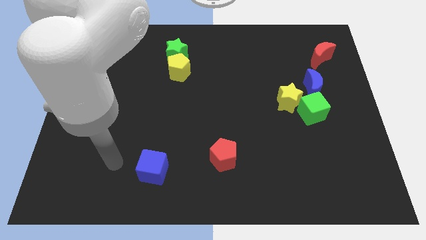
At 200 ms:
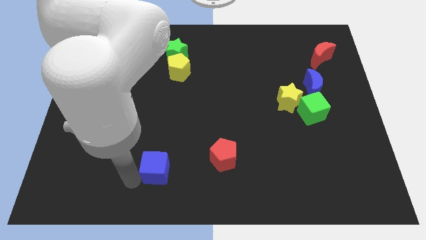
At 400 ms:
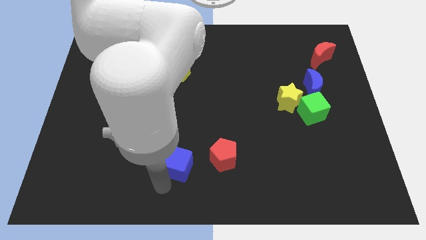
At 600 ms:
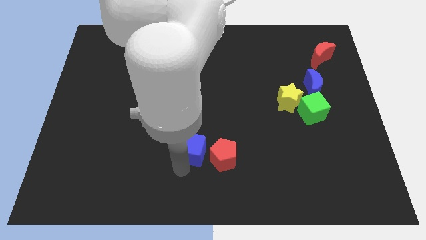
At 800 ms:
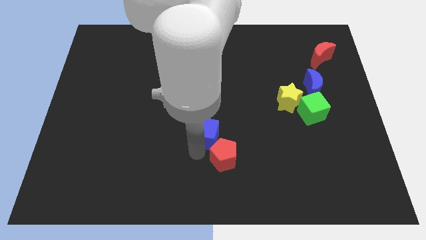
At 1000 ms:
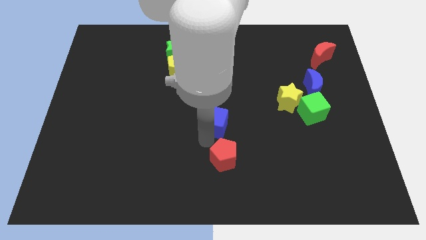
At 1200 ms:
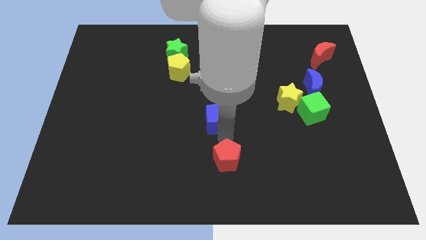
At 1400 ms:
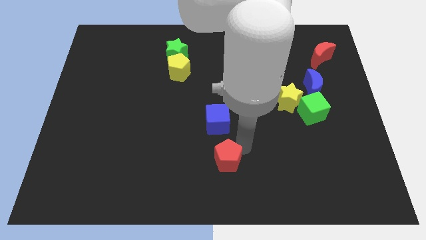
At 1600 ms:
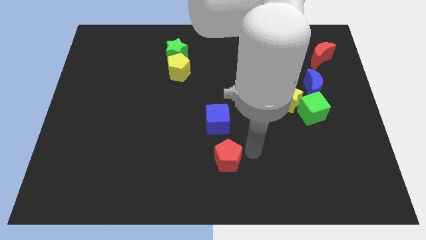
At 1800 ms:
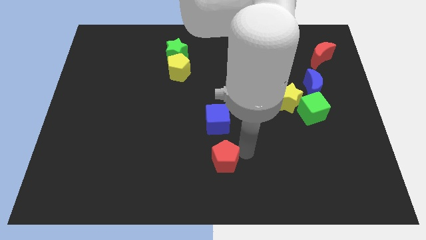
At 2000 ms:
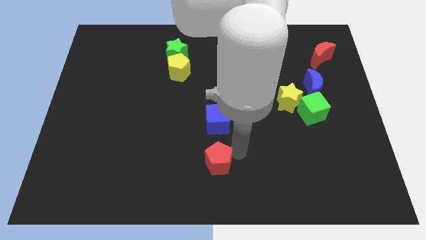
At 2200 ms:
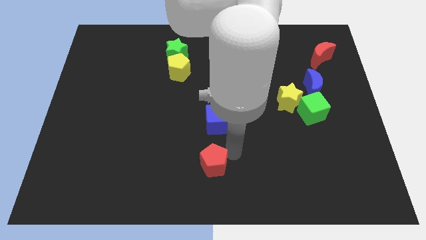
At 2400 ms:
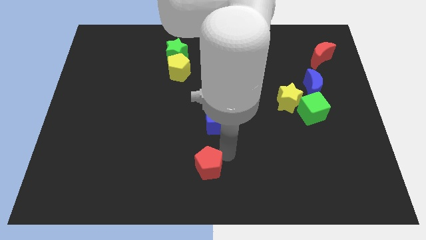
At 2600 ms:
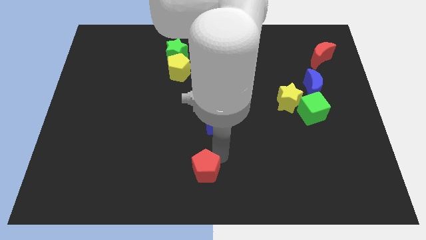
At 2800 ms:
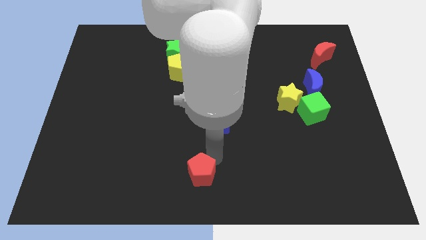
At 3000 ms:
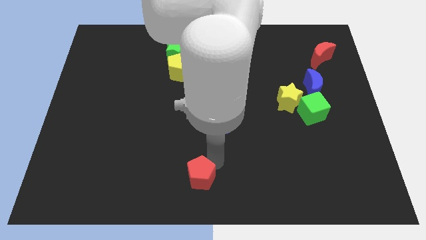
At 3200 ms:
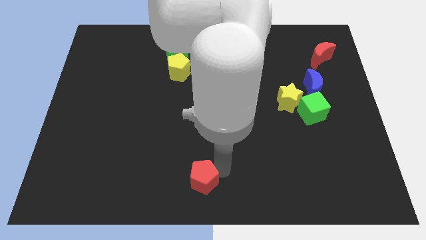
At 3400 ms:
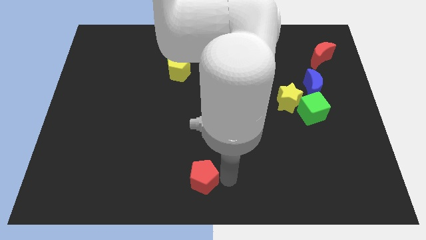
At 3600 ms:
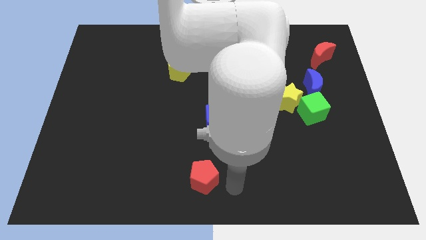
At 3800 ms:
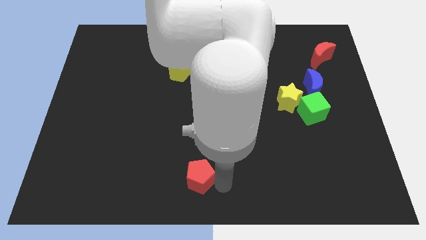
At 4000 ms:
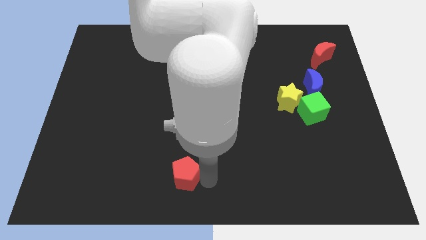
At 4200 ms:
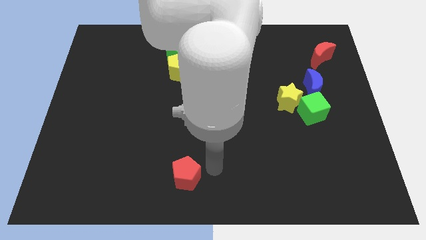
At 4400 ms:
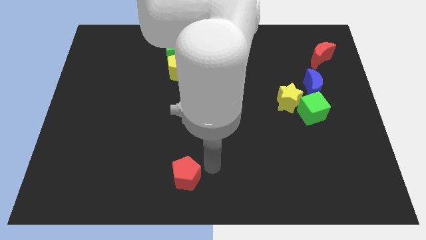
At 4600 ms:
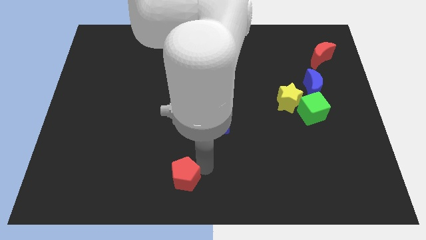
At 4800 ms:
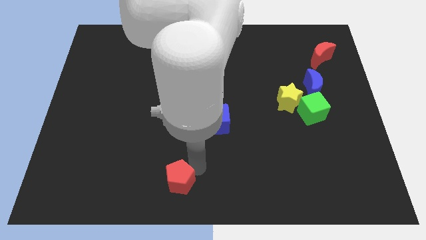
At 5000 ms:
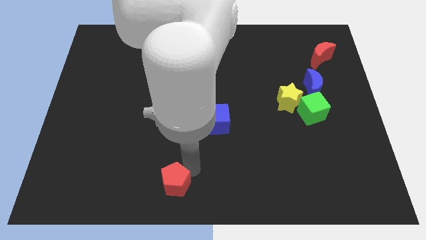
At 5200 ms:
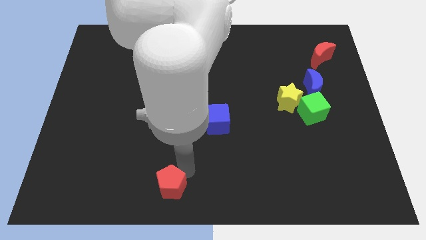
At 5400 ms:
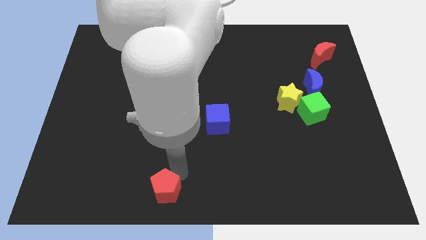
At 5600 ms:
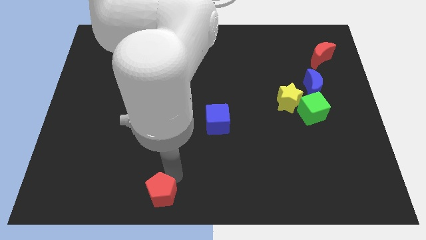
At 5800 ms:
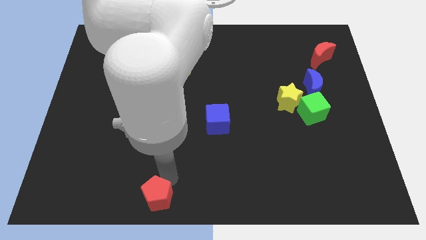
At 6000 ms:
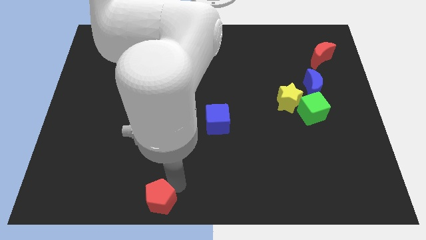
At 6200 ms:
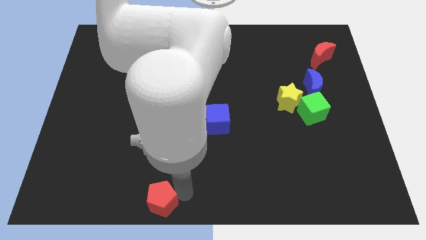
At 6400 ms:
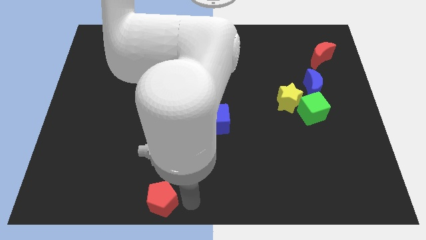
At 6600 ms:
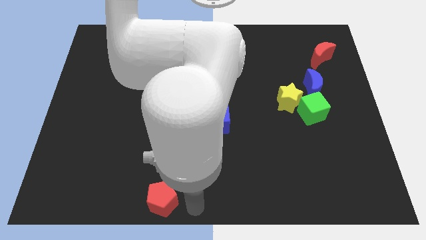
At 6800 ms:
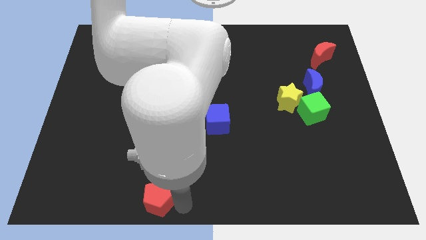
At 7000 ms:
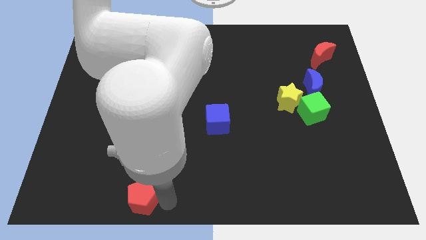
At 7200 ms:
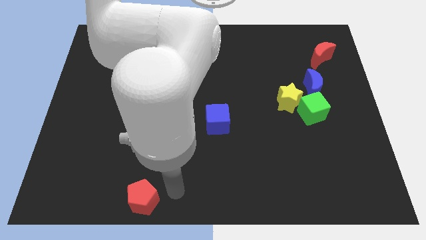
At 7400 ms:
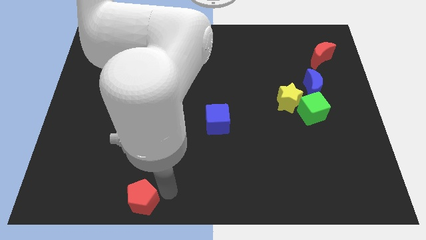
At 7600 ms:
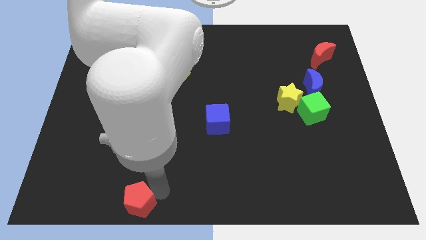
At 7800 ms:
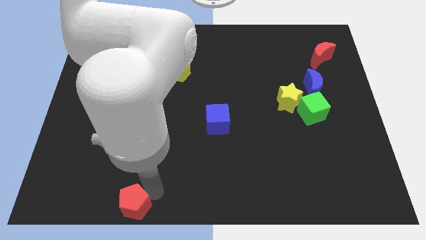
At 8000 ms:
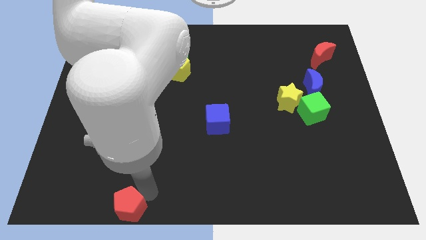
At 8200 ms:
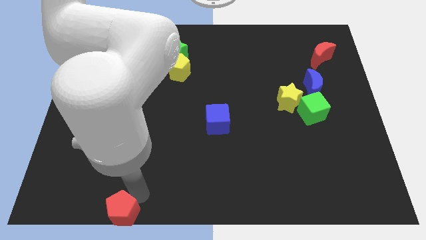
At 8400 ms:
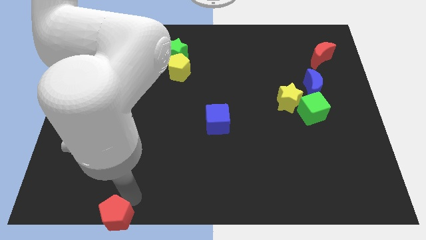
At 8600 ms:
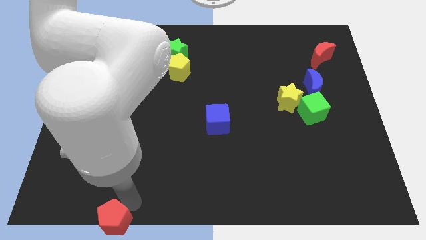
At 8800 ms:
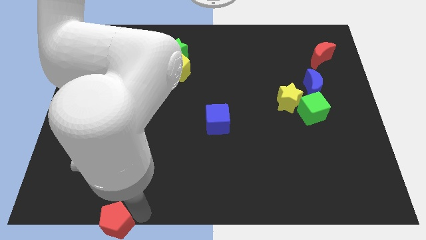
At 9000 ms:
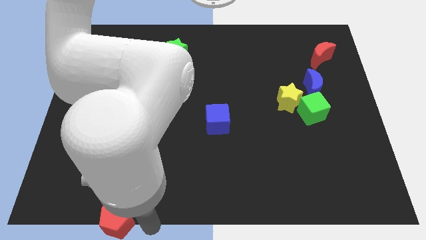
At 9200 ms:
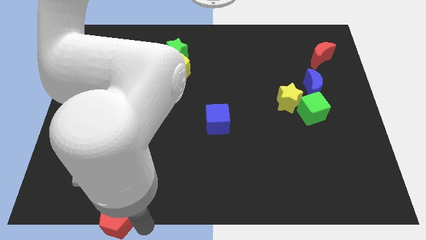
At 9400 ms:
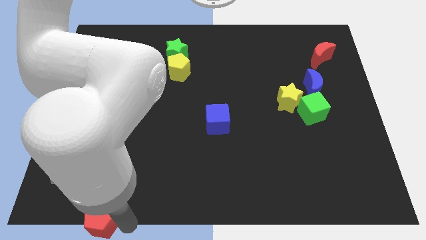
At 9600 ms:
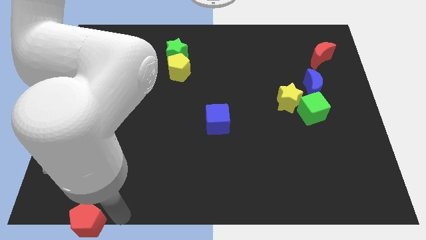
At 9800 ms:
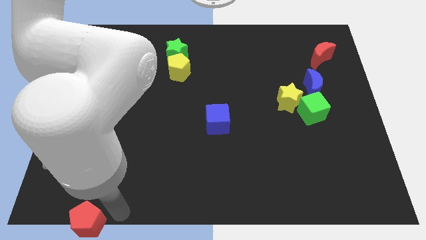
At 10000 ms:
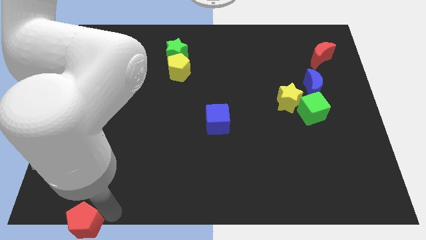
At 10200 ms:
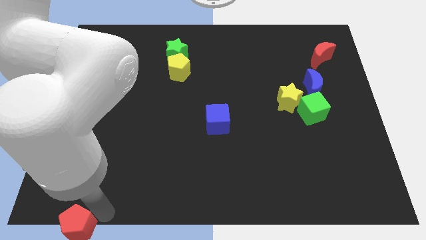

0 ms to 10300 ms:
move the red pentagon to the bottom left
